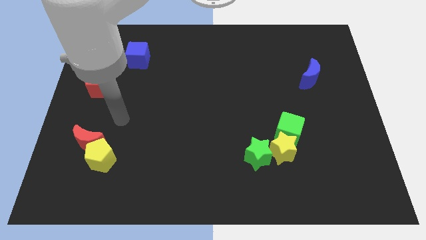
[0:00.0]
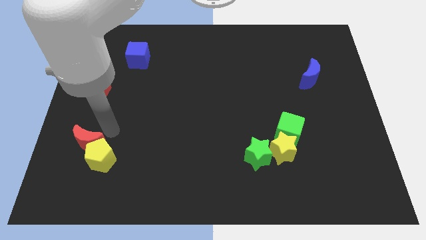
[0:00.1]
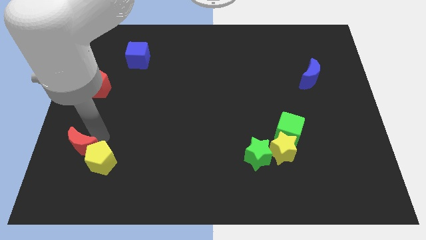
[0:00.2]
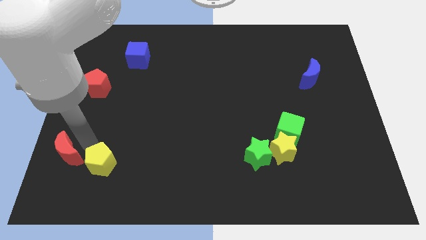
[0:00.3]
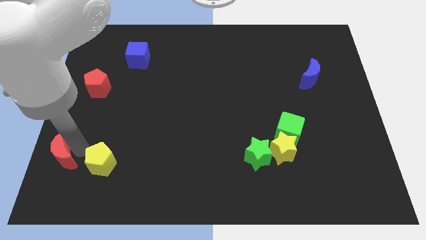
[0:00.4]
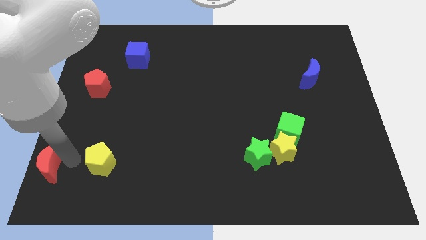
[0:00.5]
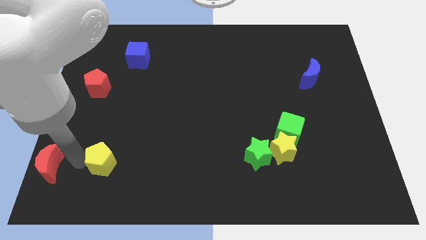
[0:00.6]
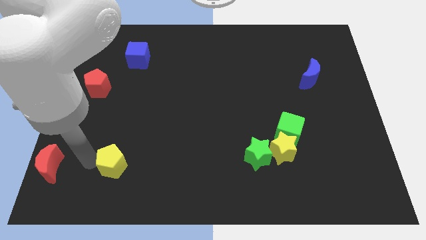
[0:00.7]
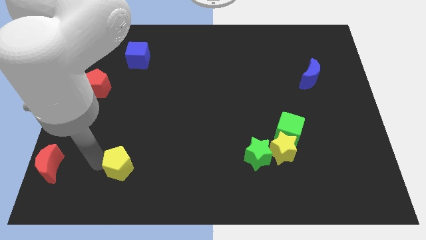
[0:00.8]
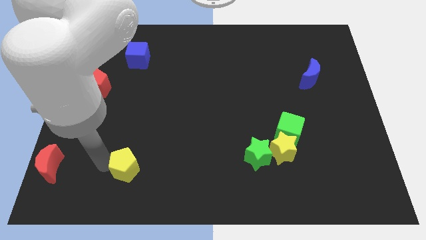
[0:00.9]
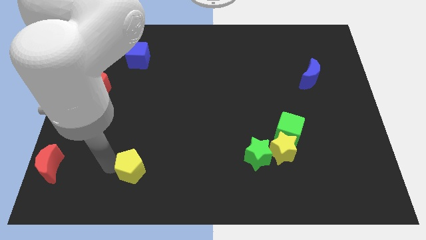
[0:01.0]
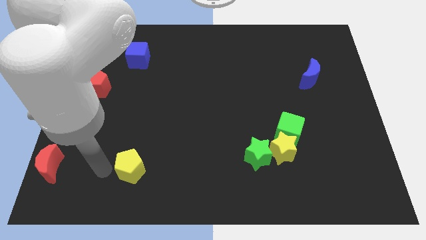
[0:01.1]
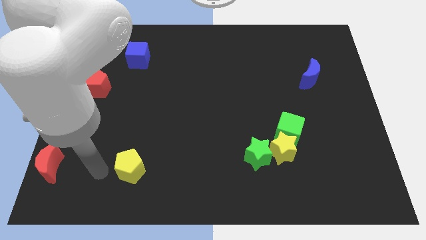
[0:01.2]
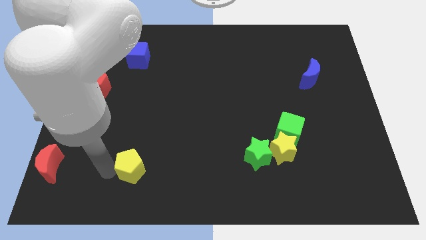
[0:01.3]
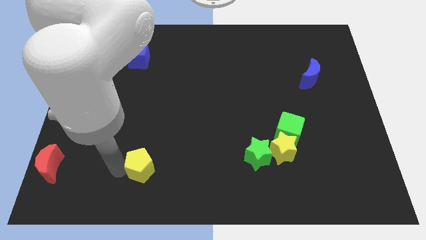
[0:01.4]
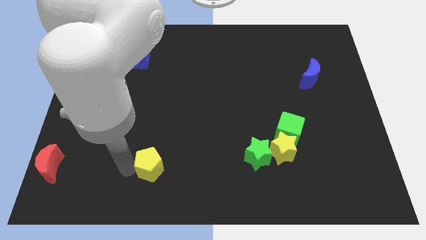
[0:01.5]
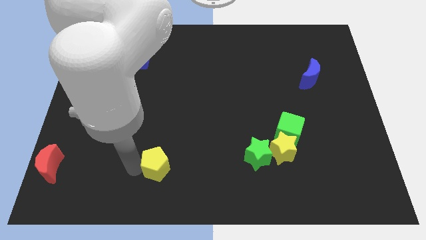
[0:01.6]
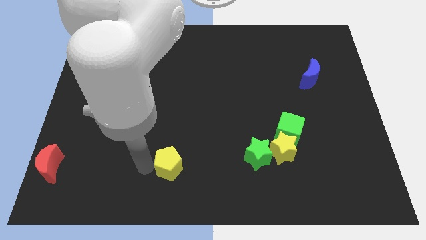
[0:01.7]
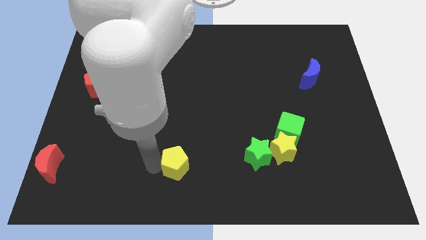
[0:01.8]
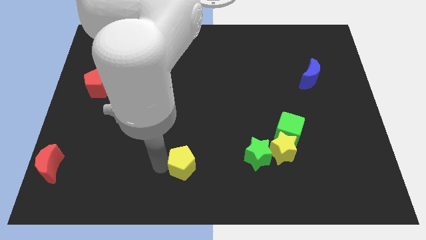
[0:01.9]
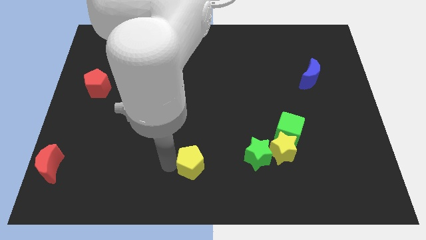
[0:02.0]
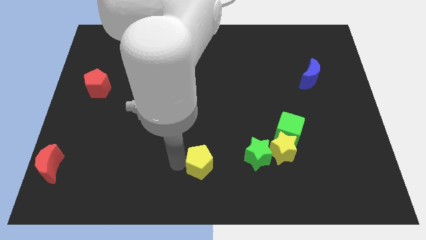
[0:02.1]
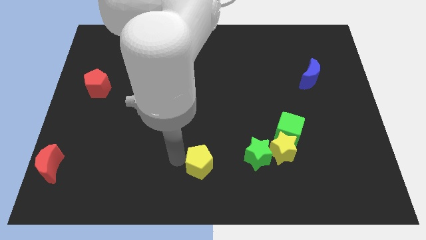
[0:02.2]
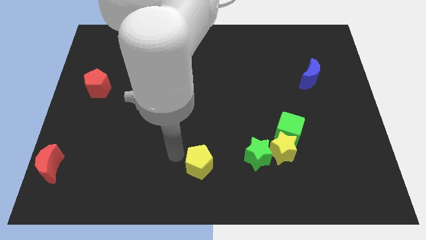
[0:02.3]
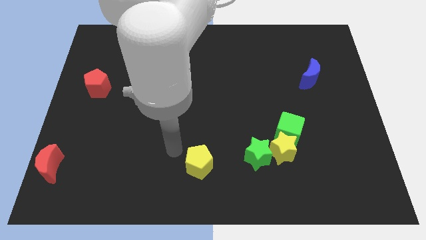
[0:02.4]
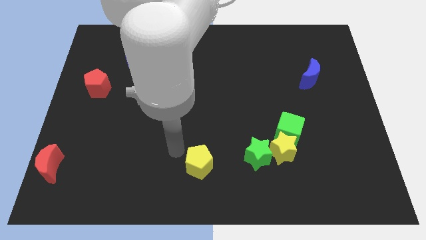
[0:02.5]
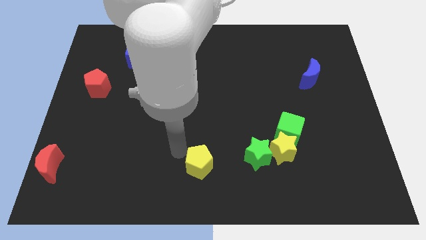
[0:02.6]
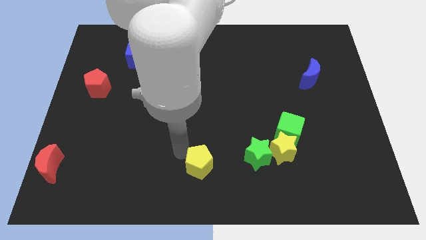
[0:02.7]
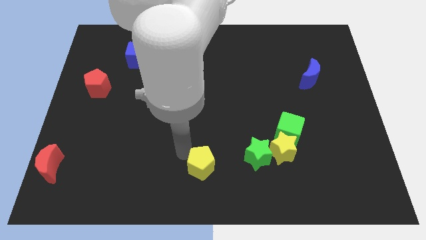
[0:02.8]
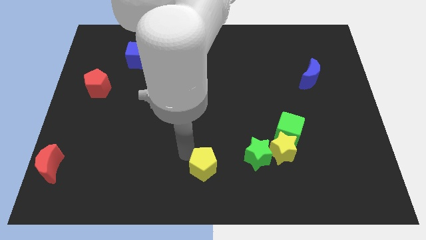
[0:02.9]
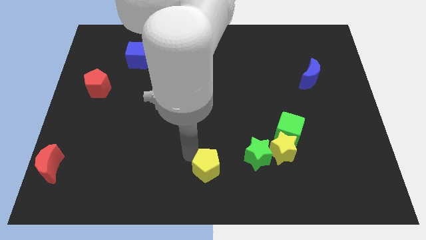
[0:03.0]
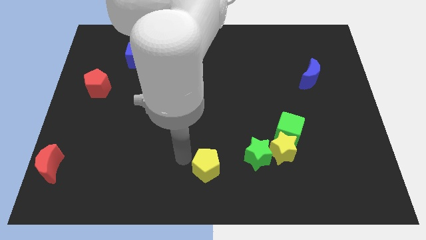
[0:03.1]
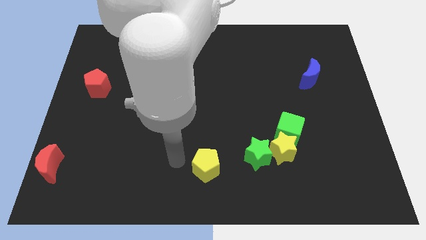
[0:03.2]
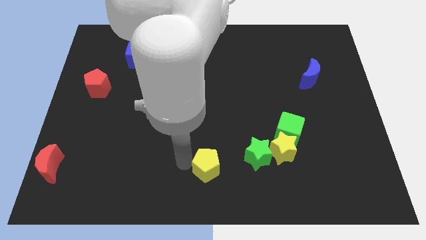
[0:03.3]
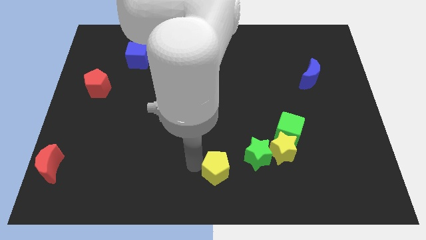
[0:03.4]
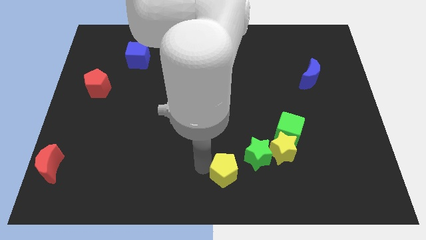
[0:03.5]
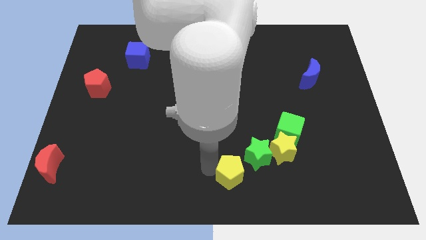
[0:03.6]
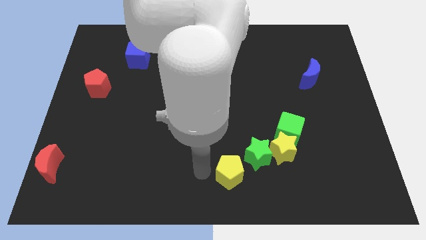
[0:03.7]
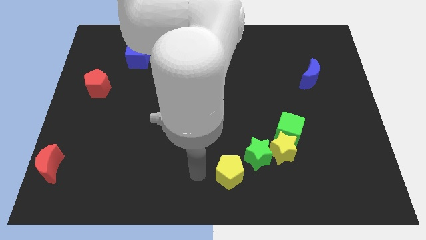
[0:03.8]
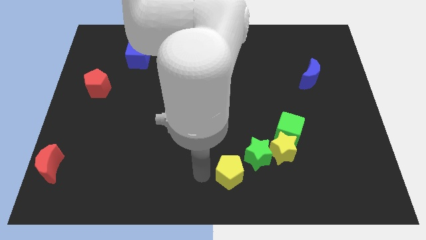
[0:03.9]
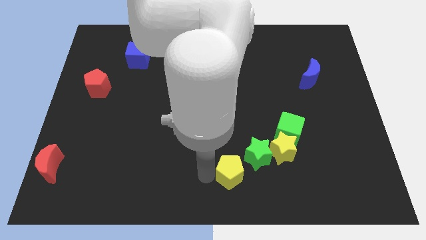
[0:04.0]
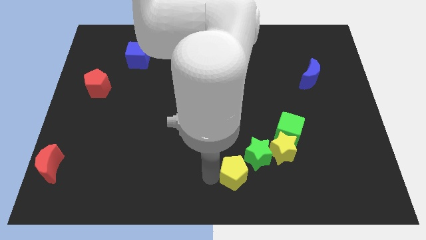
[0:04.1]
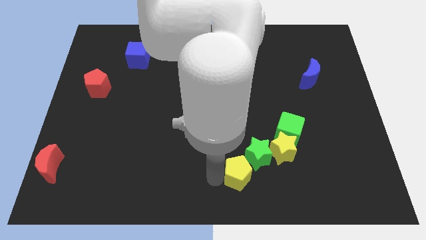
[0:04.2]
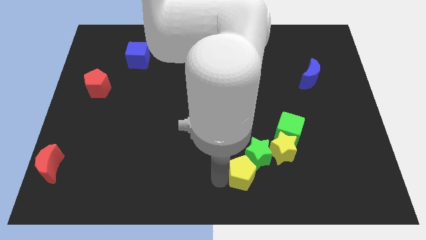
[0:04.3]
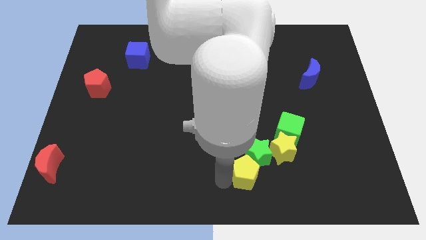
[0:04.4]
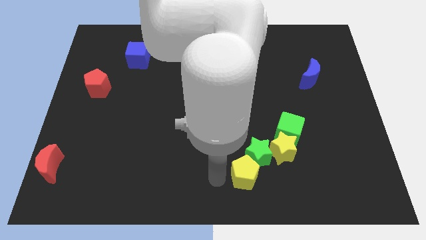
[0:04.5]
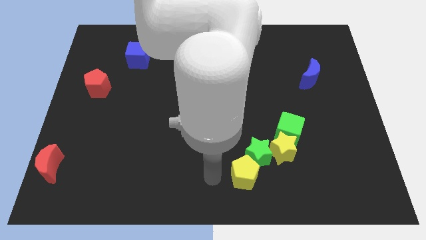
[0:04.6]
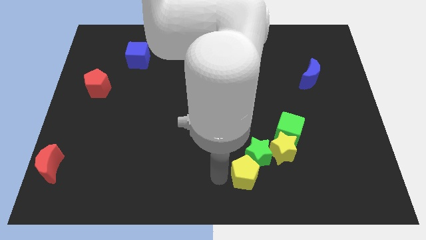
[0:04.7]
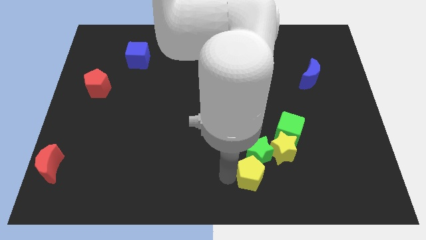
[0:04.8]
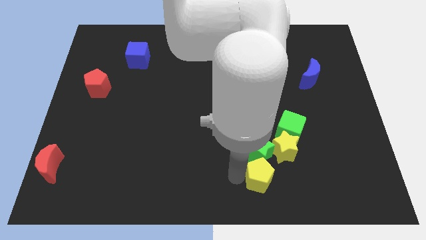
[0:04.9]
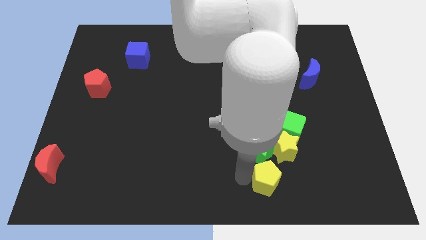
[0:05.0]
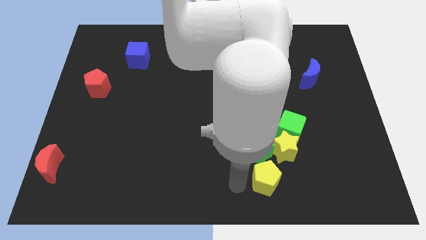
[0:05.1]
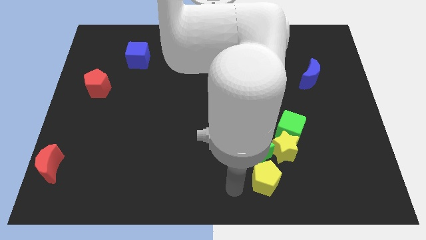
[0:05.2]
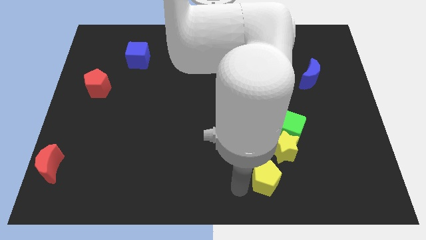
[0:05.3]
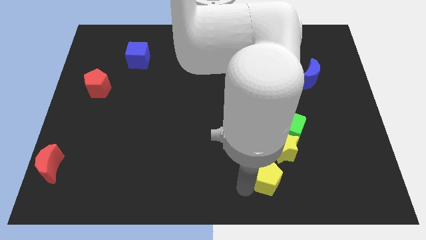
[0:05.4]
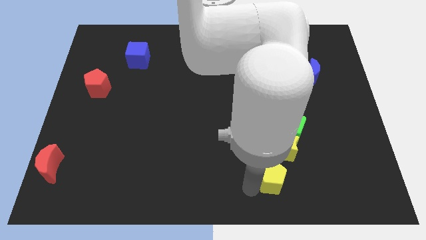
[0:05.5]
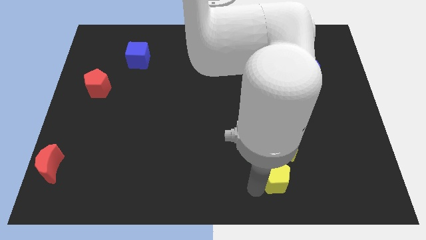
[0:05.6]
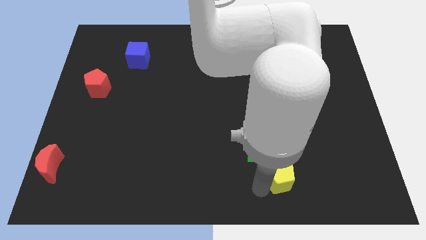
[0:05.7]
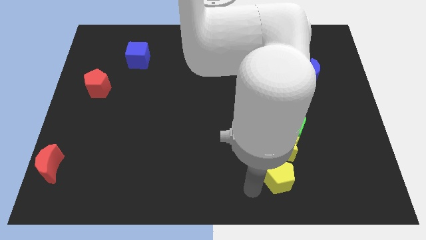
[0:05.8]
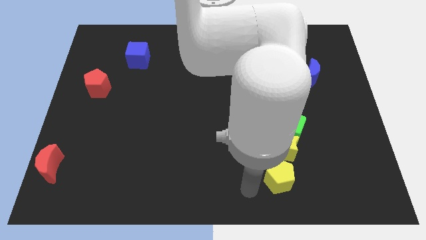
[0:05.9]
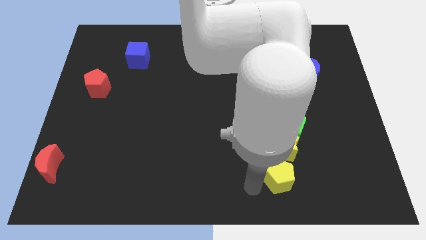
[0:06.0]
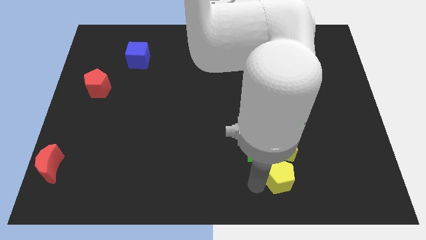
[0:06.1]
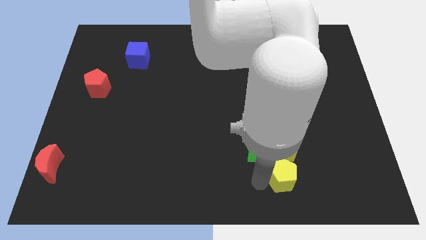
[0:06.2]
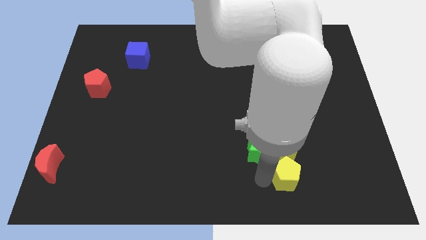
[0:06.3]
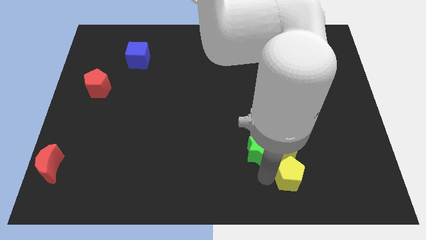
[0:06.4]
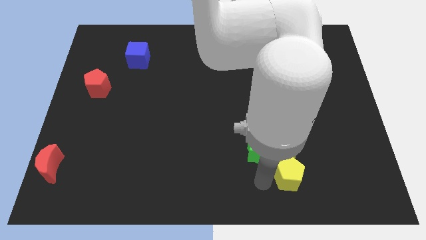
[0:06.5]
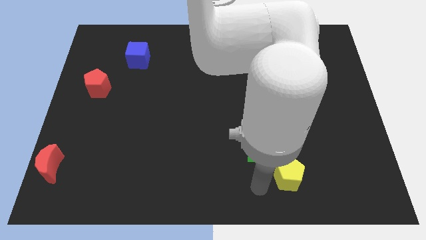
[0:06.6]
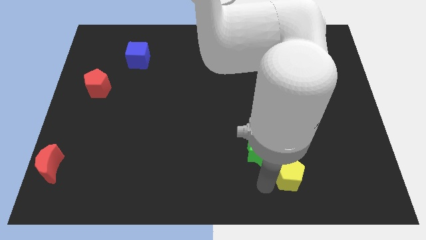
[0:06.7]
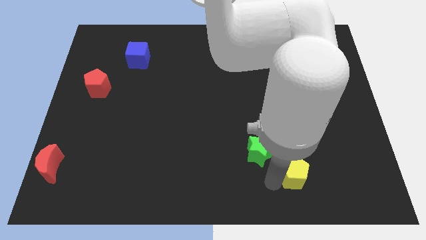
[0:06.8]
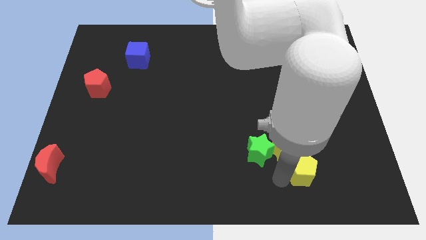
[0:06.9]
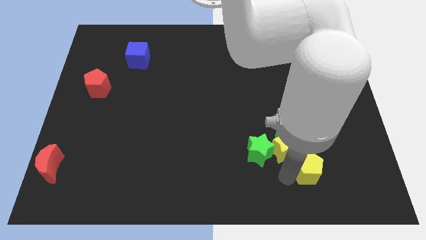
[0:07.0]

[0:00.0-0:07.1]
move the yellow pentagon to the right of the yellow star

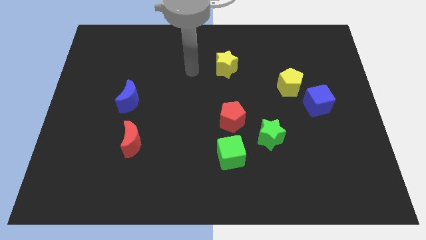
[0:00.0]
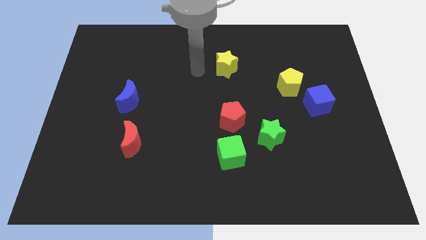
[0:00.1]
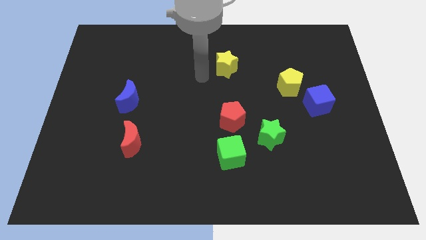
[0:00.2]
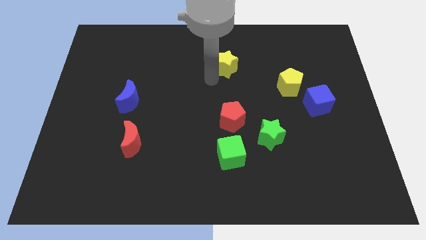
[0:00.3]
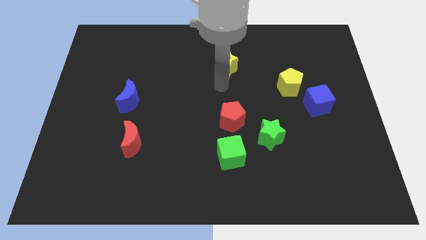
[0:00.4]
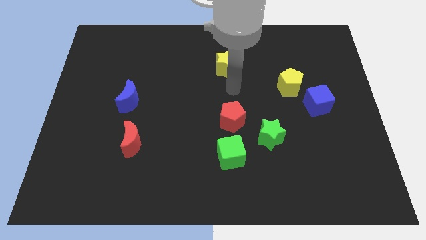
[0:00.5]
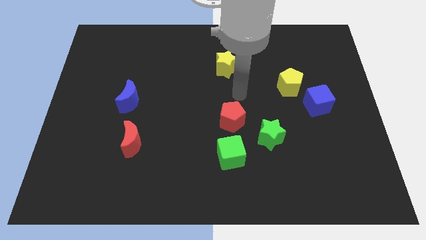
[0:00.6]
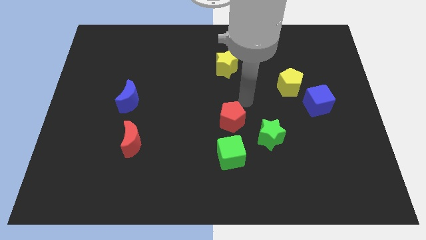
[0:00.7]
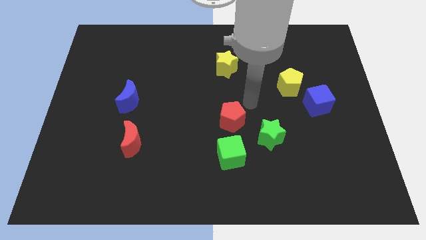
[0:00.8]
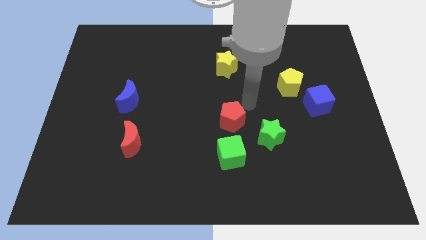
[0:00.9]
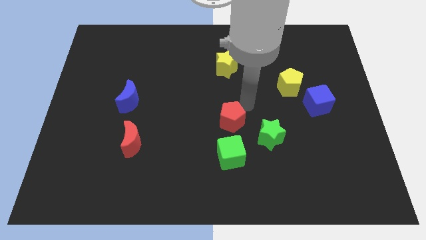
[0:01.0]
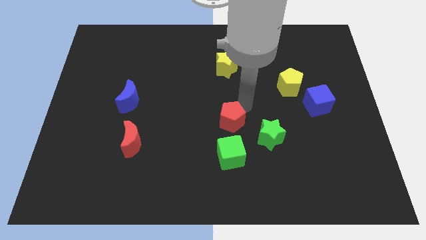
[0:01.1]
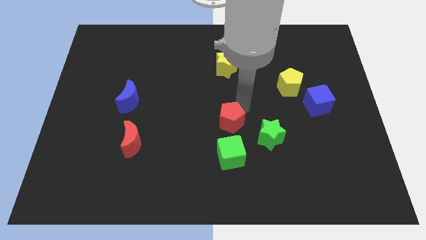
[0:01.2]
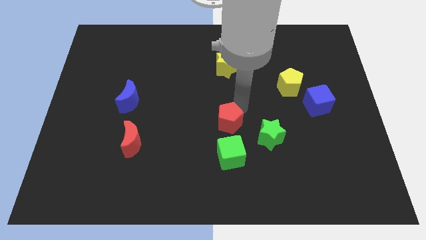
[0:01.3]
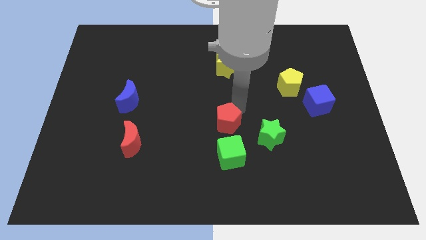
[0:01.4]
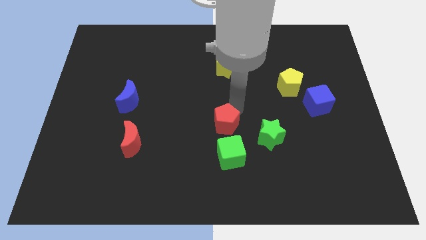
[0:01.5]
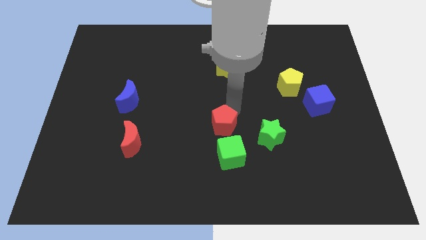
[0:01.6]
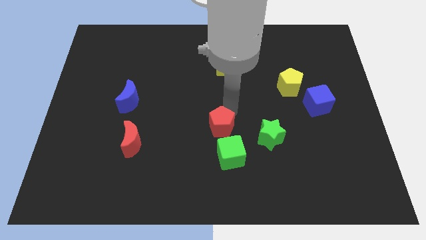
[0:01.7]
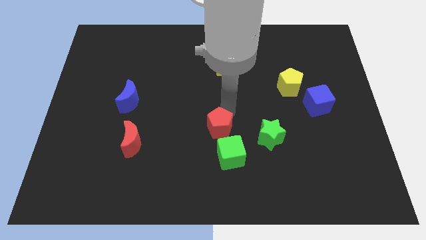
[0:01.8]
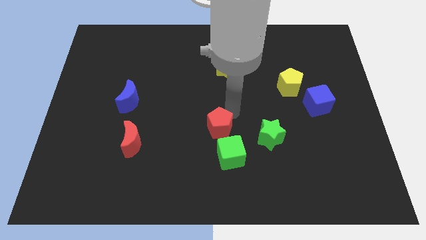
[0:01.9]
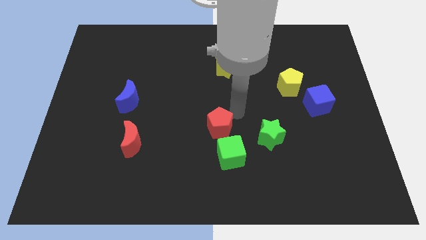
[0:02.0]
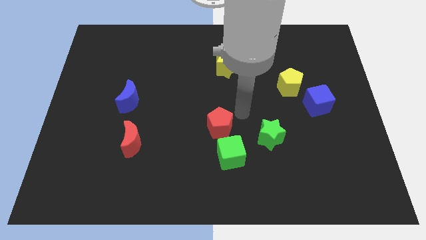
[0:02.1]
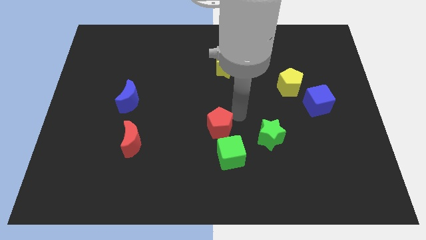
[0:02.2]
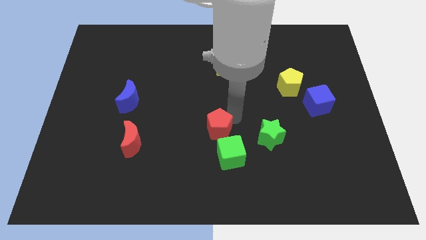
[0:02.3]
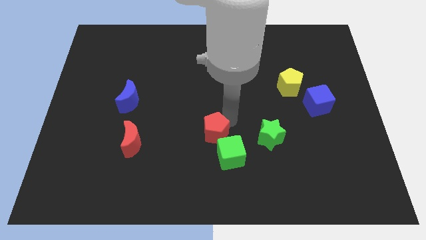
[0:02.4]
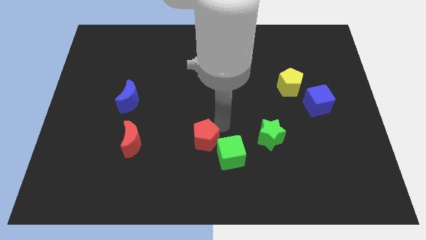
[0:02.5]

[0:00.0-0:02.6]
move the red pentagon left of the green cube
